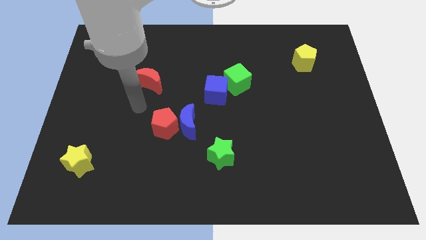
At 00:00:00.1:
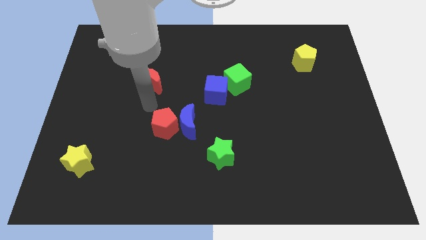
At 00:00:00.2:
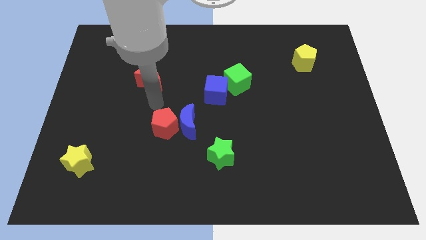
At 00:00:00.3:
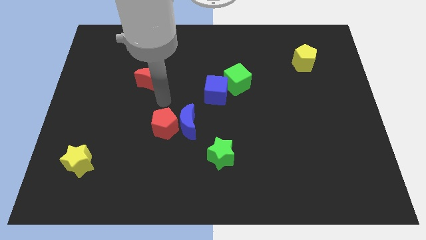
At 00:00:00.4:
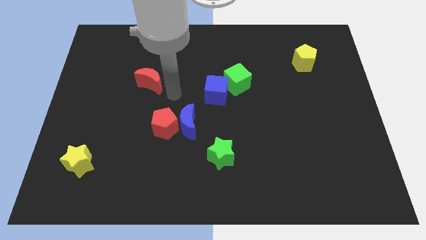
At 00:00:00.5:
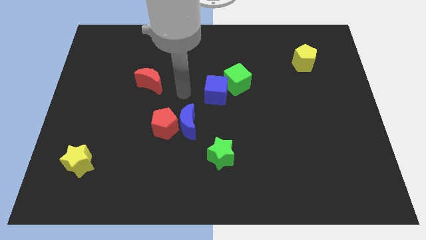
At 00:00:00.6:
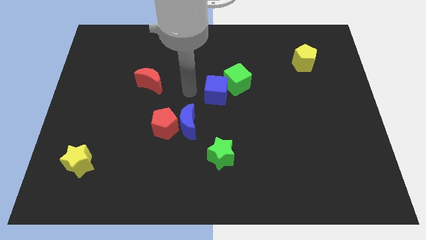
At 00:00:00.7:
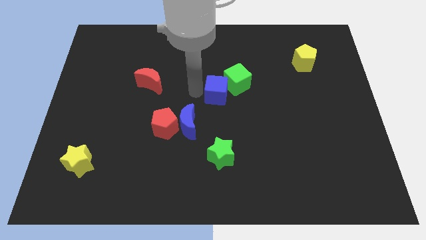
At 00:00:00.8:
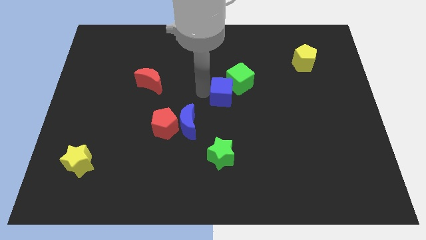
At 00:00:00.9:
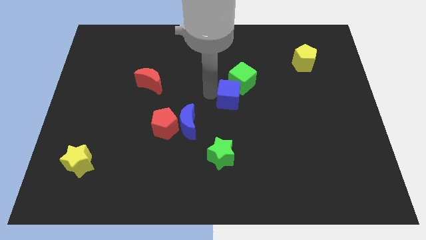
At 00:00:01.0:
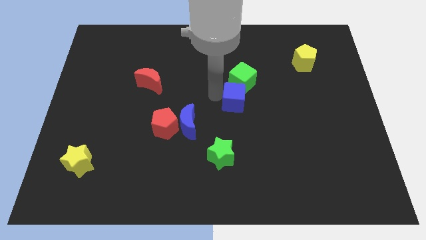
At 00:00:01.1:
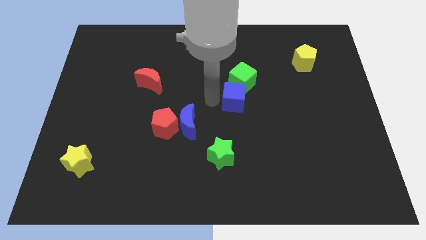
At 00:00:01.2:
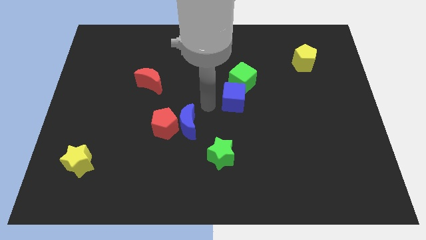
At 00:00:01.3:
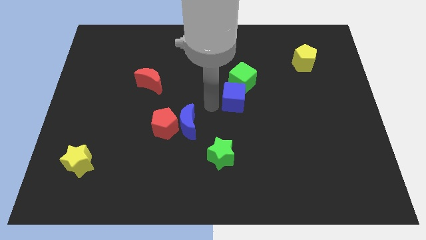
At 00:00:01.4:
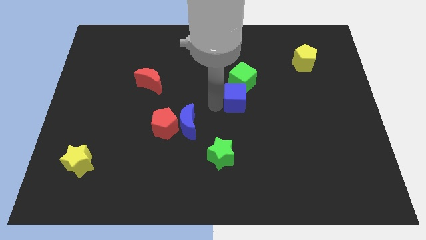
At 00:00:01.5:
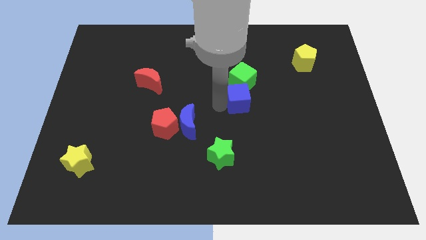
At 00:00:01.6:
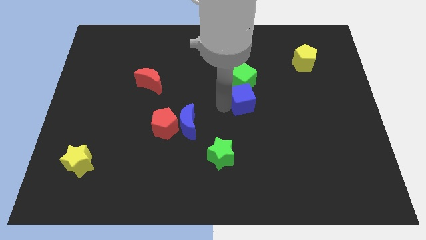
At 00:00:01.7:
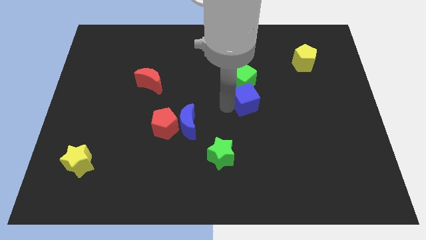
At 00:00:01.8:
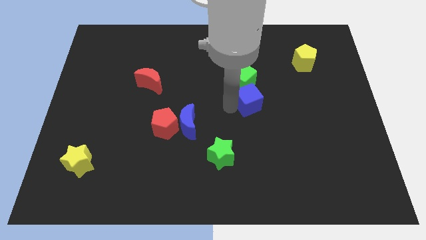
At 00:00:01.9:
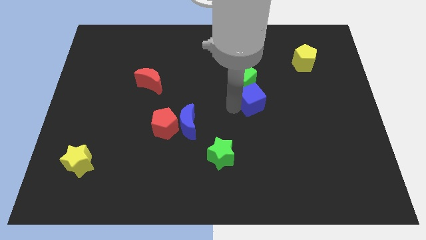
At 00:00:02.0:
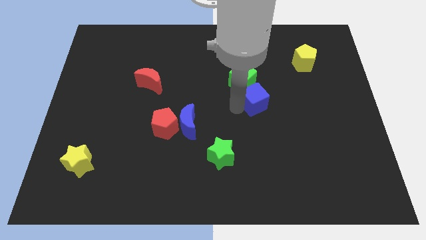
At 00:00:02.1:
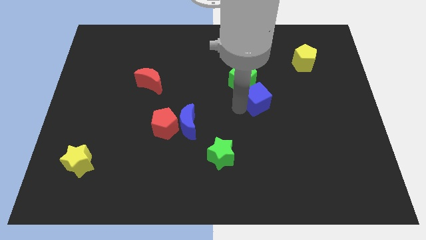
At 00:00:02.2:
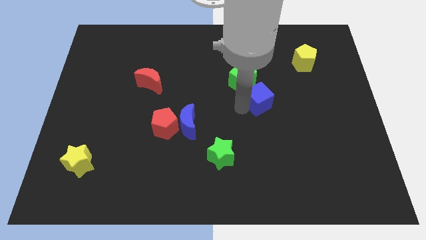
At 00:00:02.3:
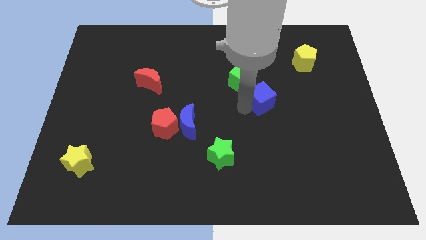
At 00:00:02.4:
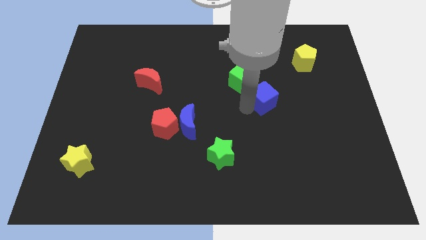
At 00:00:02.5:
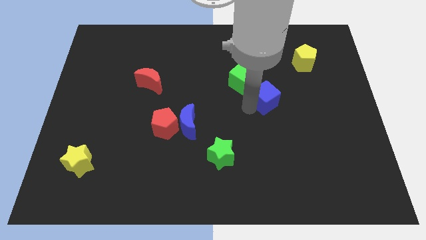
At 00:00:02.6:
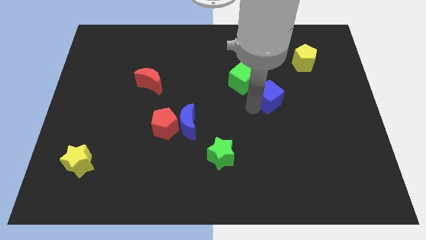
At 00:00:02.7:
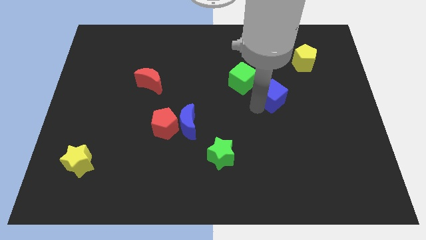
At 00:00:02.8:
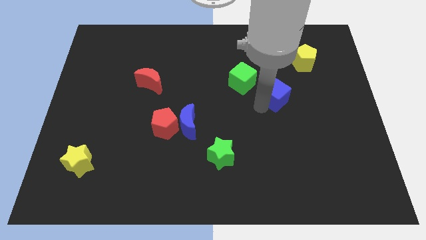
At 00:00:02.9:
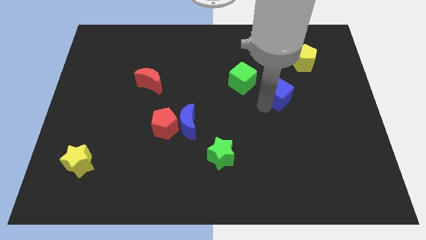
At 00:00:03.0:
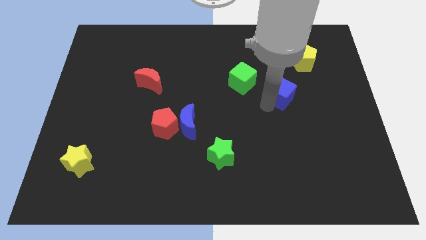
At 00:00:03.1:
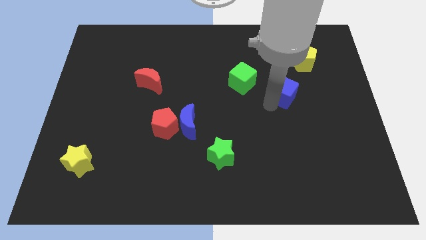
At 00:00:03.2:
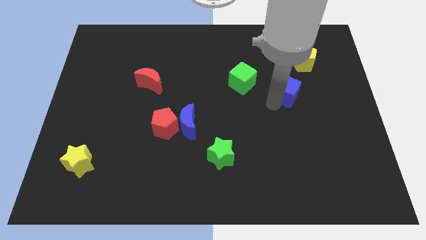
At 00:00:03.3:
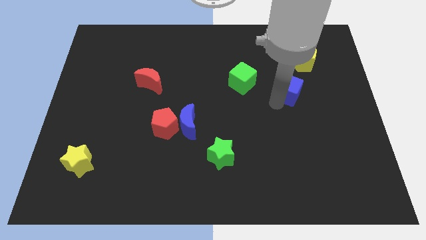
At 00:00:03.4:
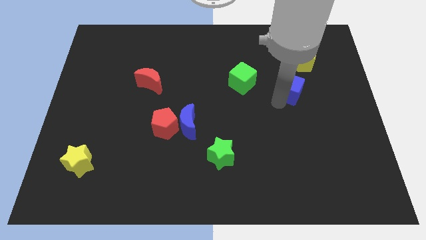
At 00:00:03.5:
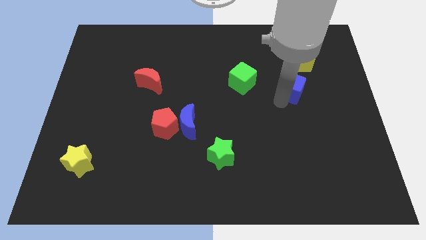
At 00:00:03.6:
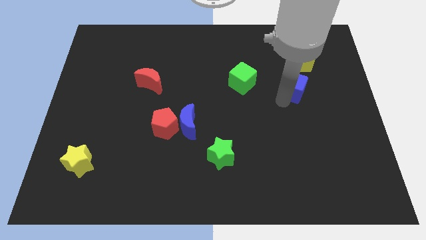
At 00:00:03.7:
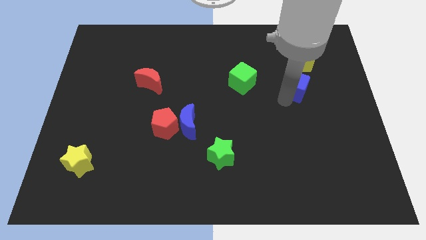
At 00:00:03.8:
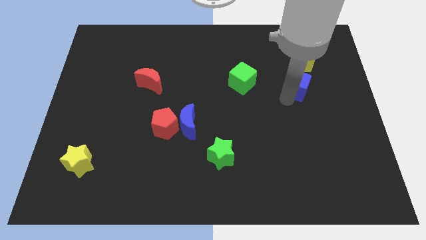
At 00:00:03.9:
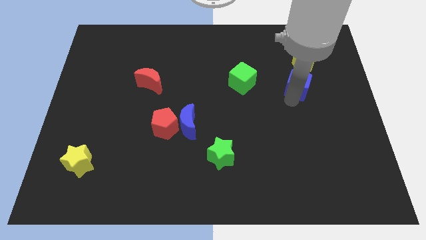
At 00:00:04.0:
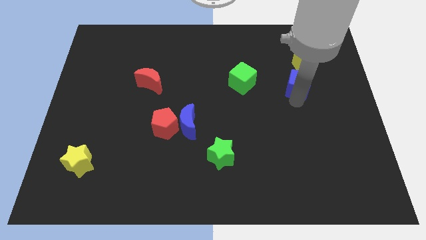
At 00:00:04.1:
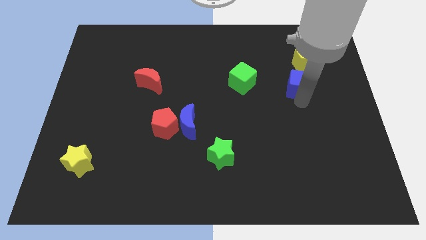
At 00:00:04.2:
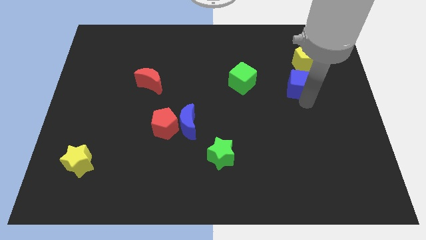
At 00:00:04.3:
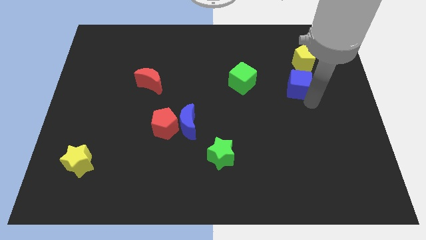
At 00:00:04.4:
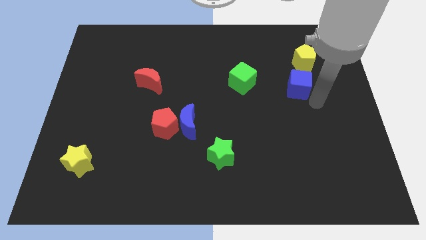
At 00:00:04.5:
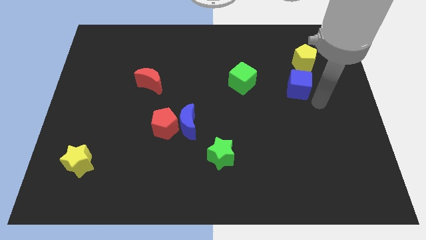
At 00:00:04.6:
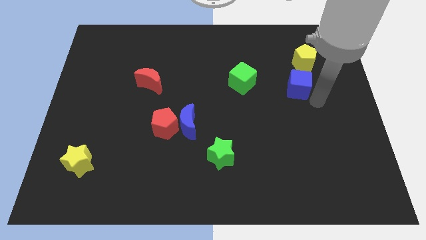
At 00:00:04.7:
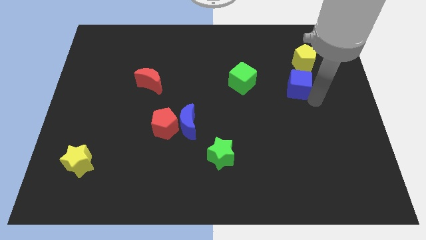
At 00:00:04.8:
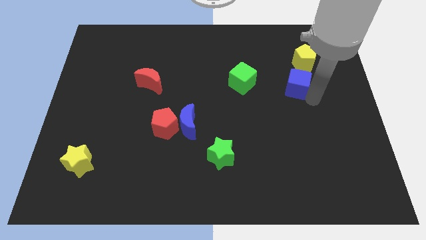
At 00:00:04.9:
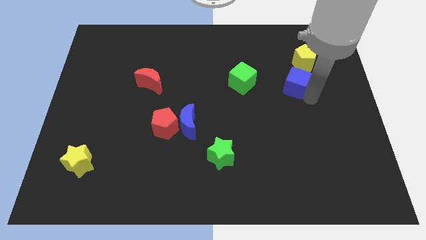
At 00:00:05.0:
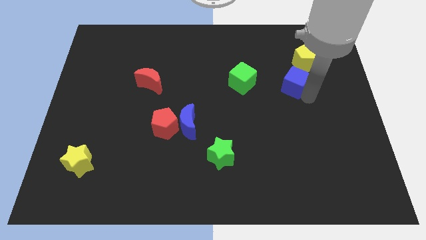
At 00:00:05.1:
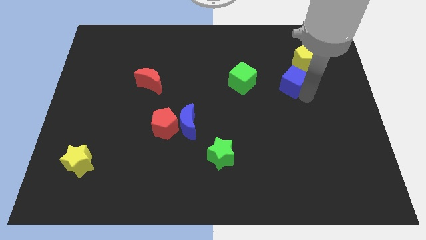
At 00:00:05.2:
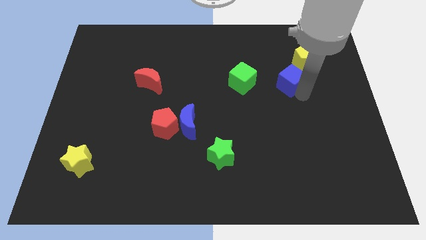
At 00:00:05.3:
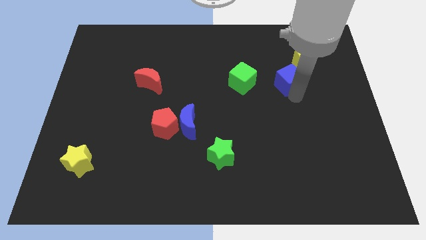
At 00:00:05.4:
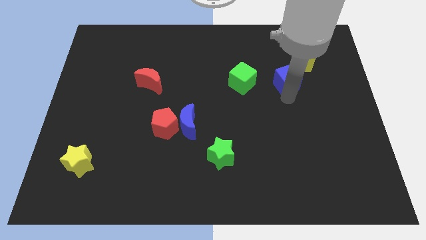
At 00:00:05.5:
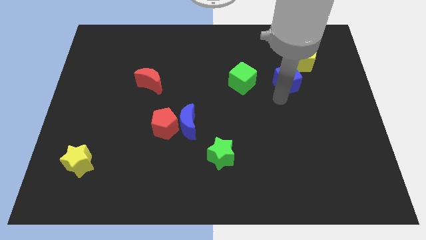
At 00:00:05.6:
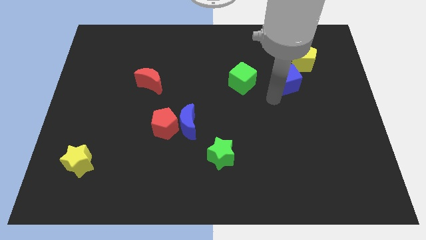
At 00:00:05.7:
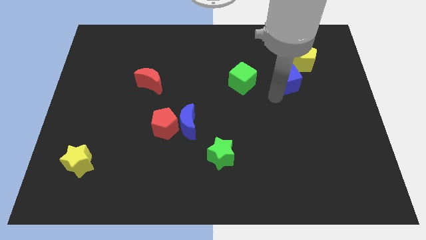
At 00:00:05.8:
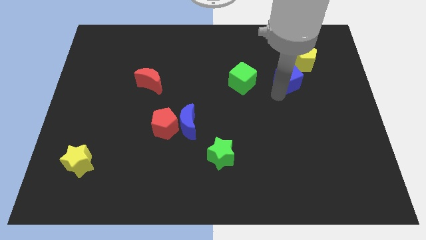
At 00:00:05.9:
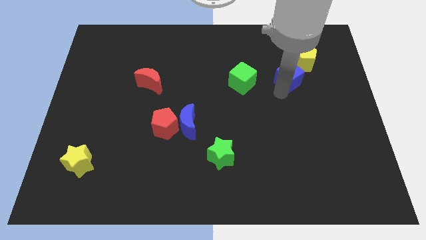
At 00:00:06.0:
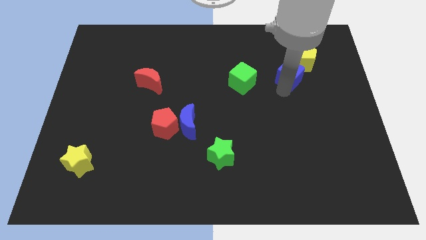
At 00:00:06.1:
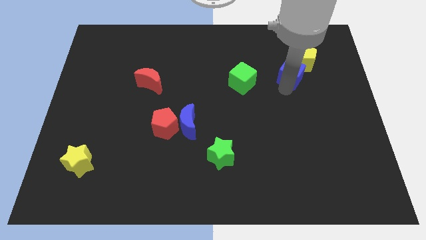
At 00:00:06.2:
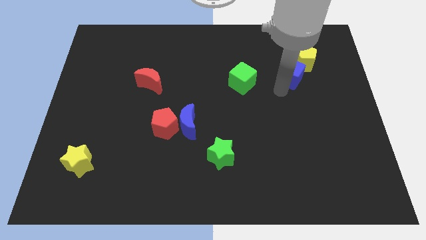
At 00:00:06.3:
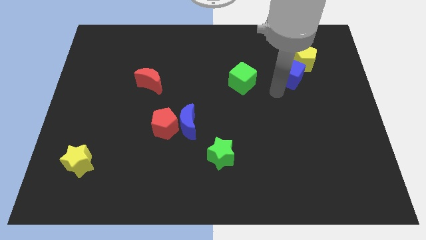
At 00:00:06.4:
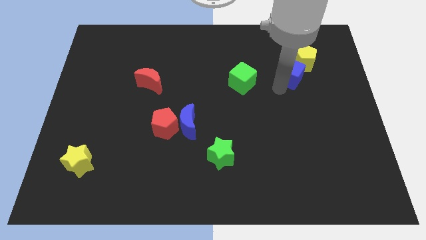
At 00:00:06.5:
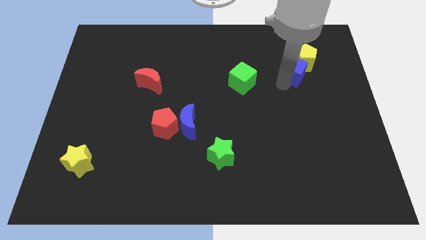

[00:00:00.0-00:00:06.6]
slide the blue cube to the yellow pentagon

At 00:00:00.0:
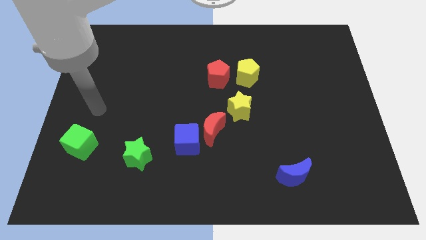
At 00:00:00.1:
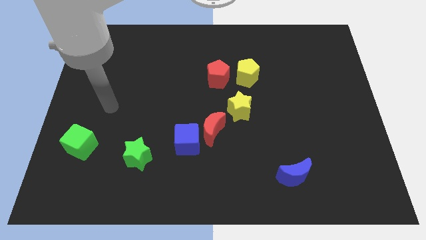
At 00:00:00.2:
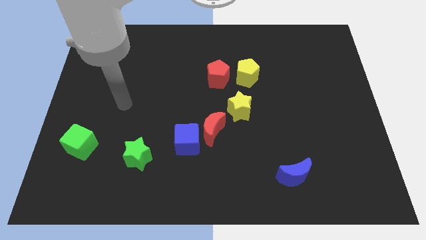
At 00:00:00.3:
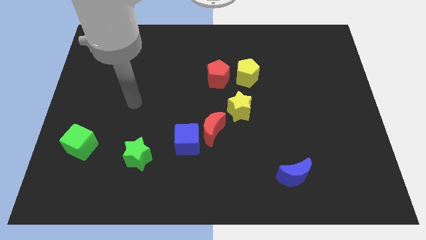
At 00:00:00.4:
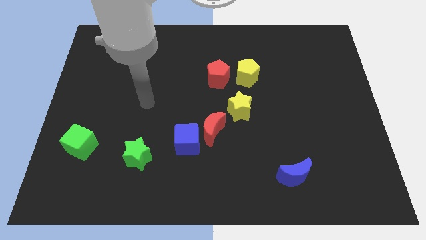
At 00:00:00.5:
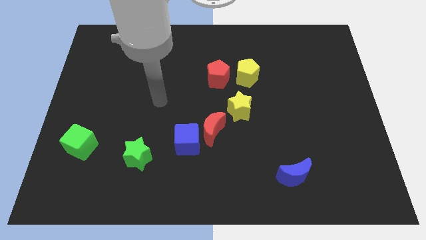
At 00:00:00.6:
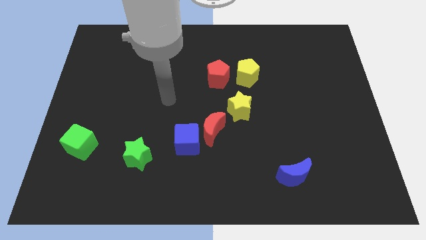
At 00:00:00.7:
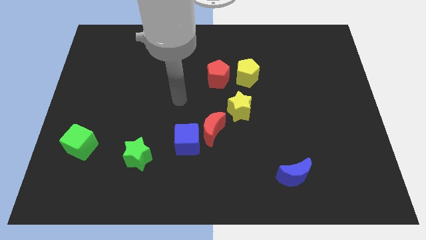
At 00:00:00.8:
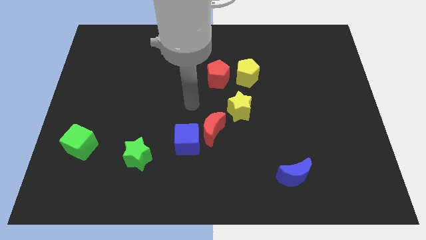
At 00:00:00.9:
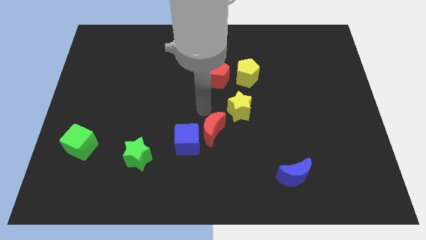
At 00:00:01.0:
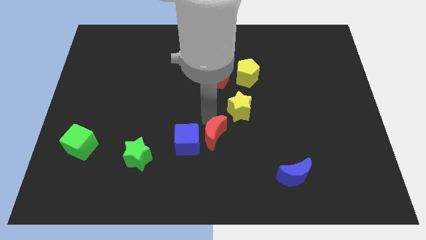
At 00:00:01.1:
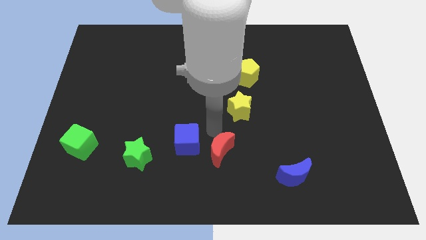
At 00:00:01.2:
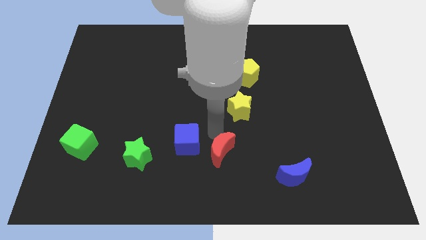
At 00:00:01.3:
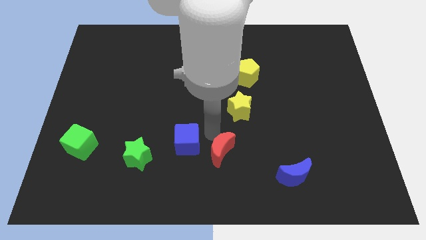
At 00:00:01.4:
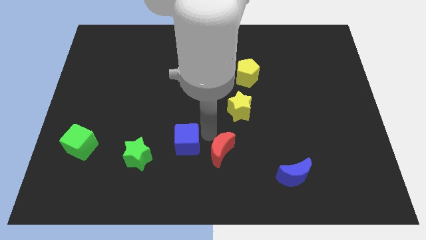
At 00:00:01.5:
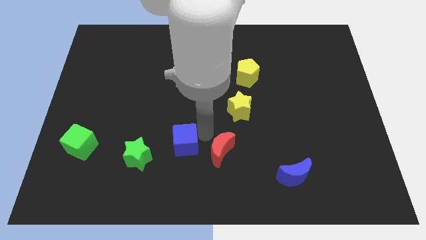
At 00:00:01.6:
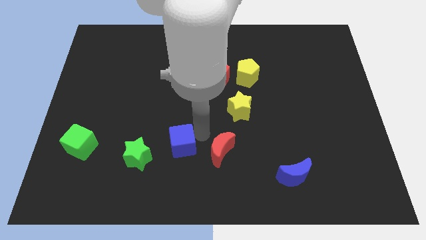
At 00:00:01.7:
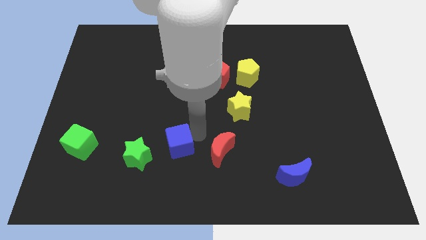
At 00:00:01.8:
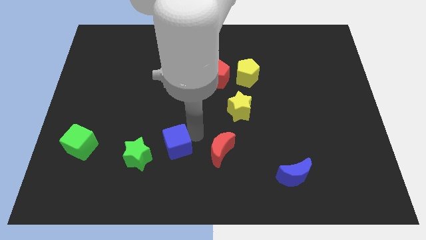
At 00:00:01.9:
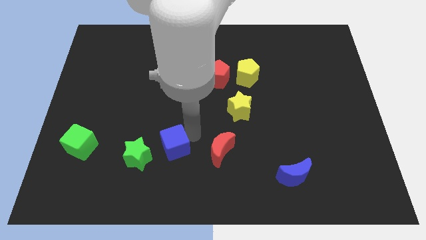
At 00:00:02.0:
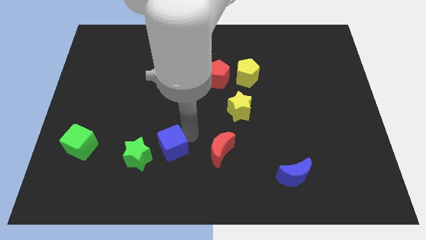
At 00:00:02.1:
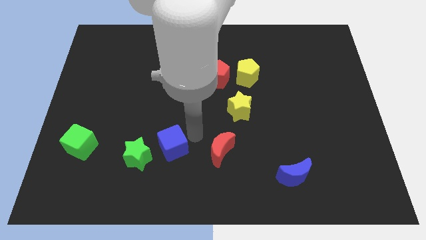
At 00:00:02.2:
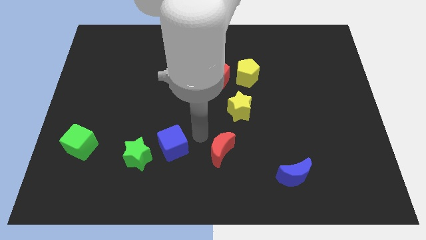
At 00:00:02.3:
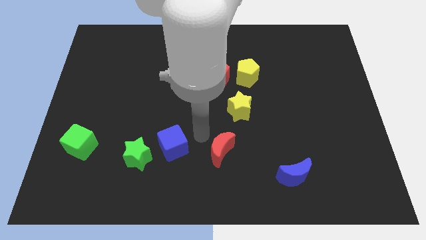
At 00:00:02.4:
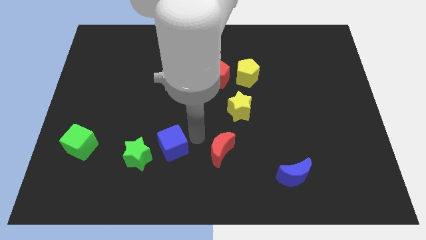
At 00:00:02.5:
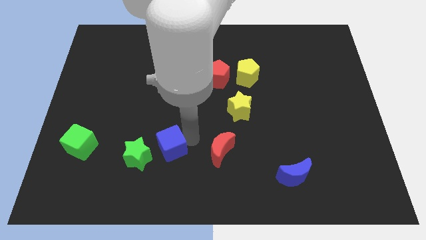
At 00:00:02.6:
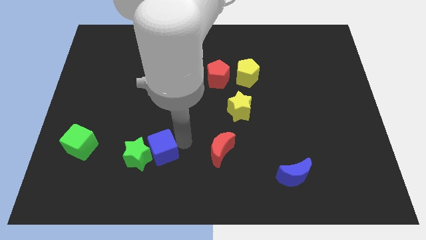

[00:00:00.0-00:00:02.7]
push the blue cube close to the green star
